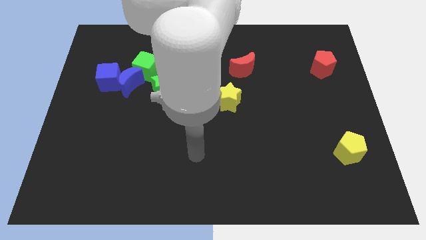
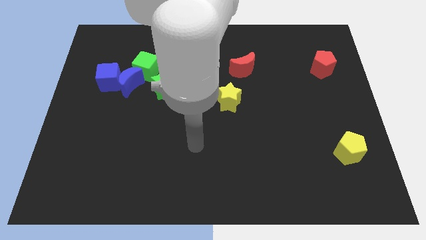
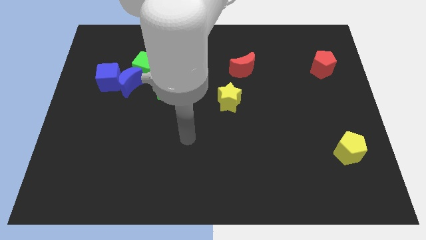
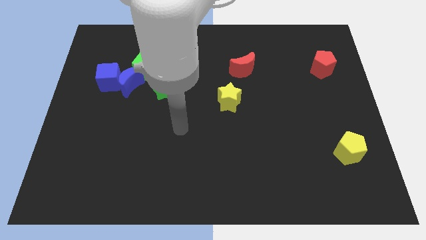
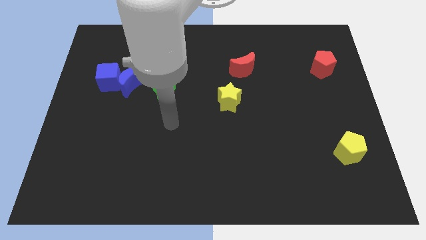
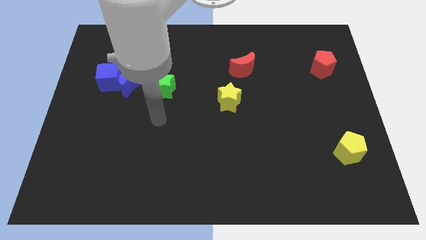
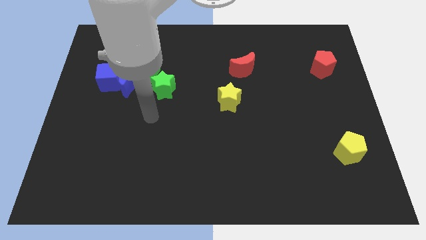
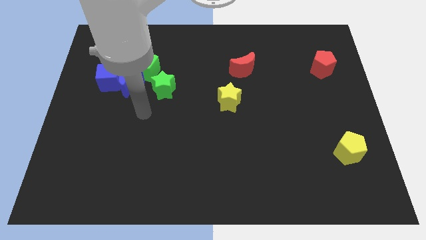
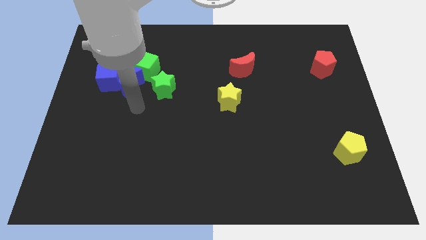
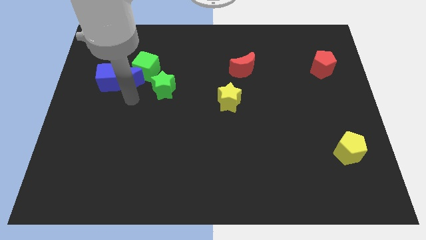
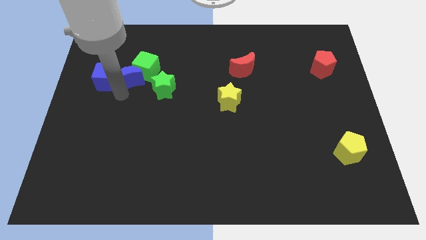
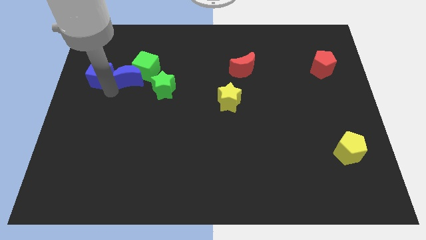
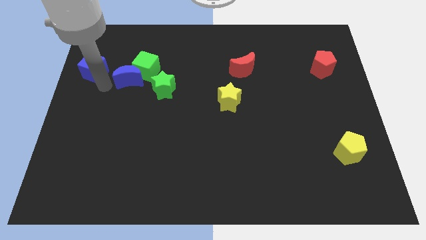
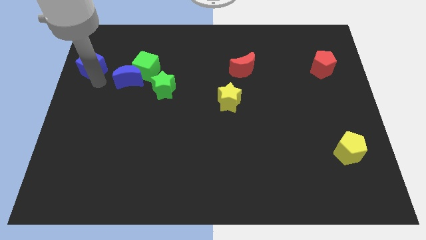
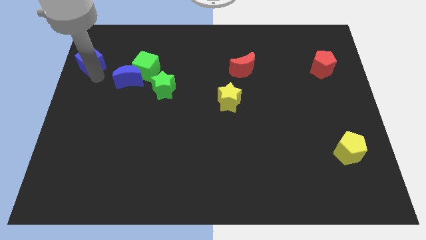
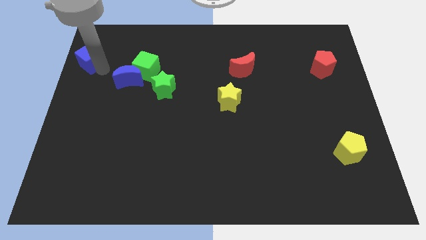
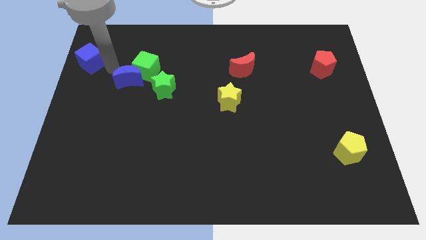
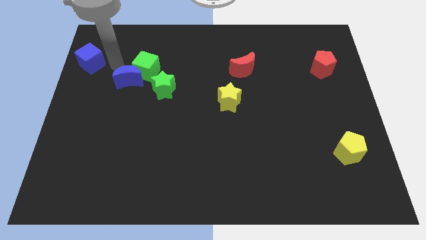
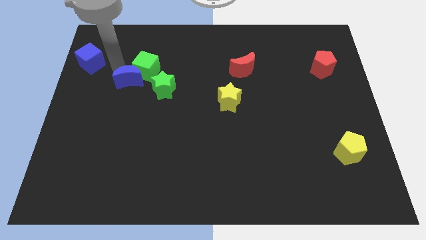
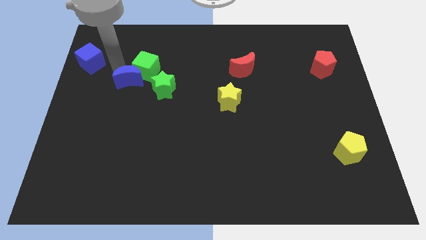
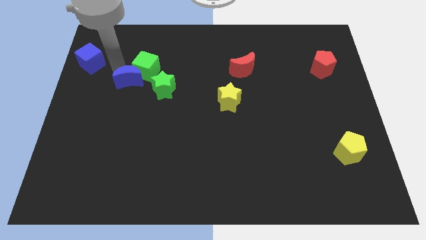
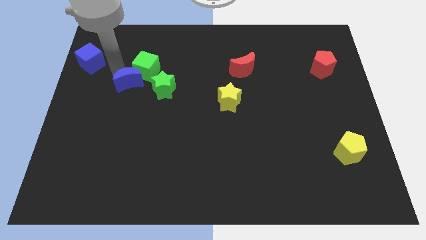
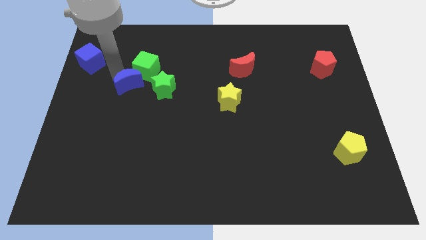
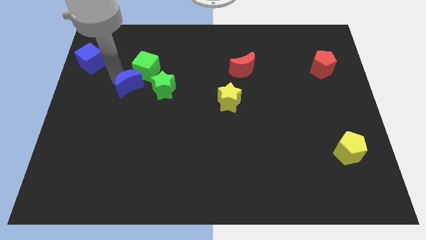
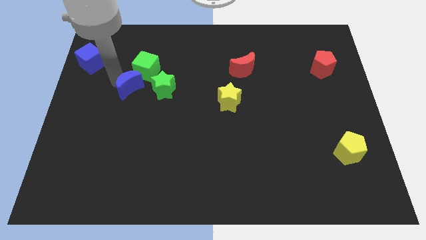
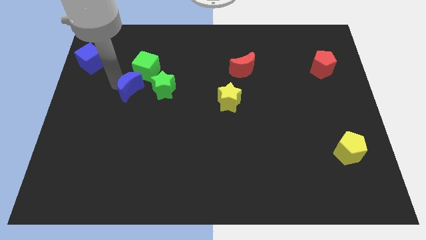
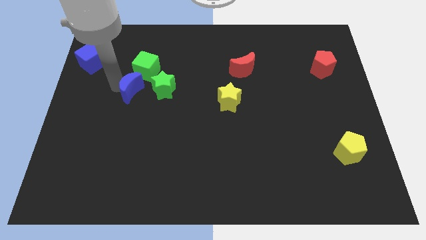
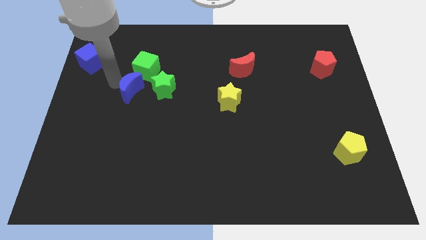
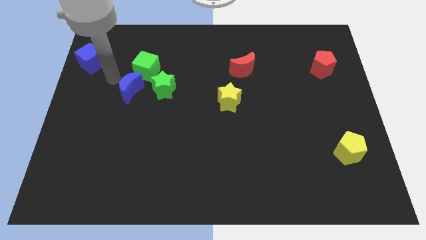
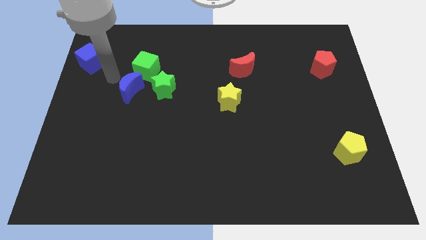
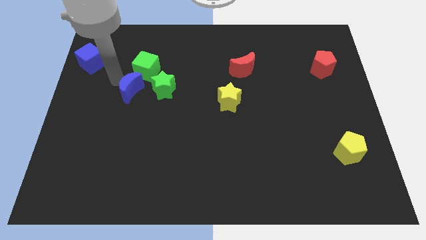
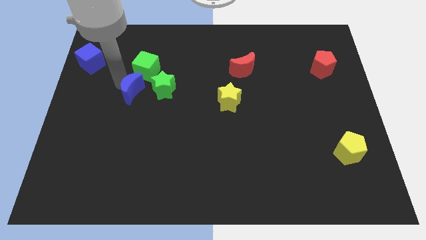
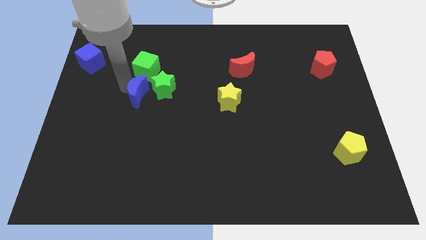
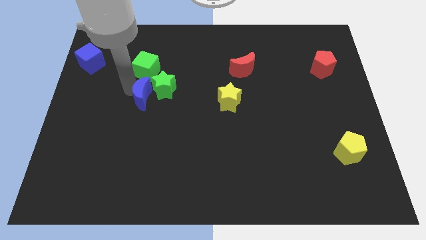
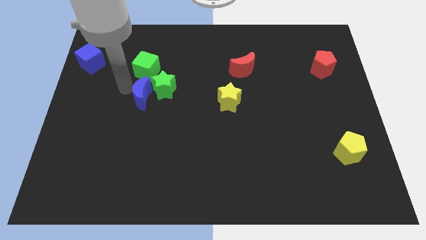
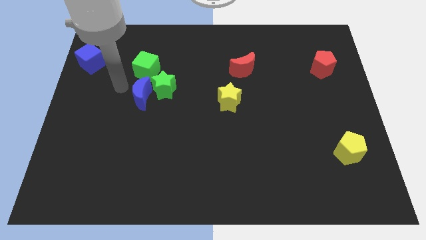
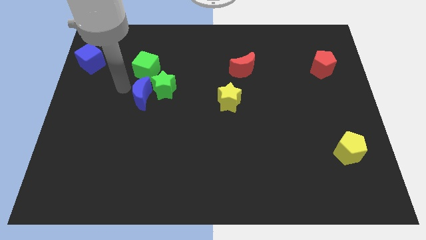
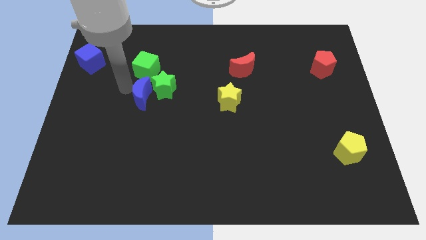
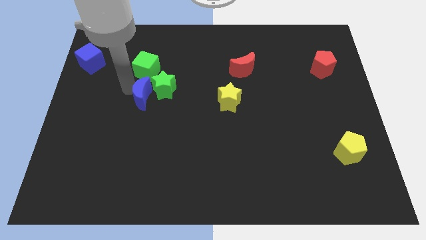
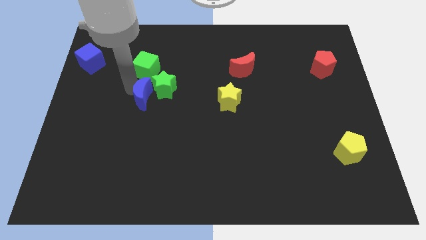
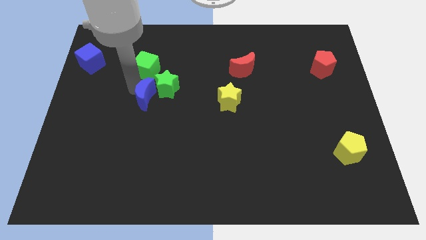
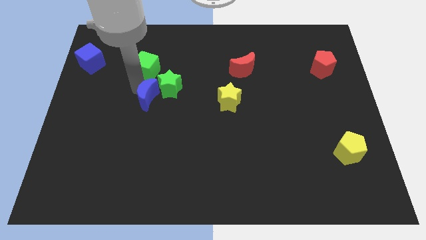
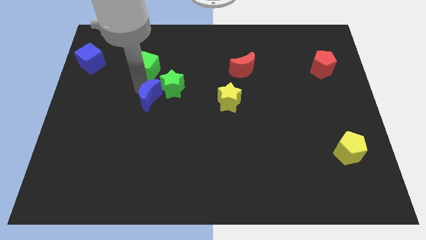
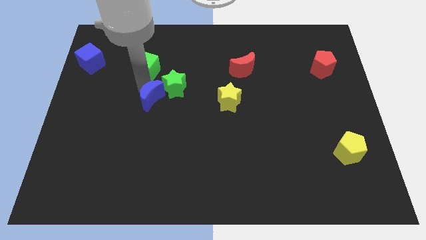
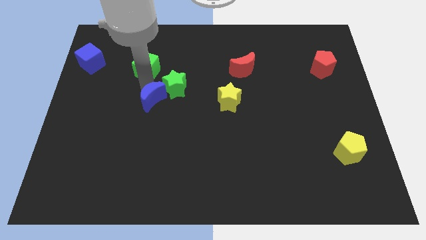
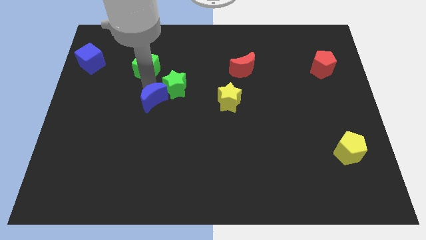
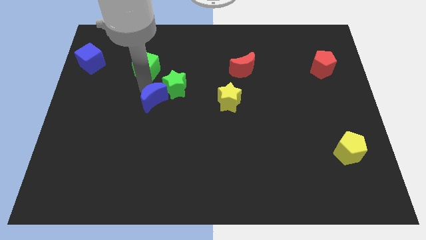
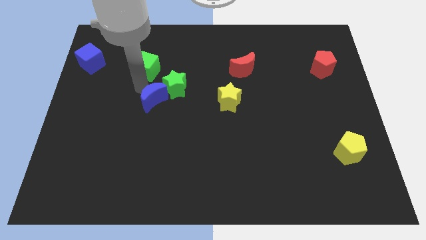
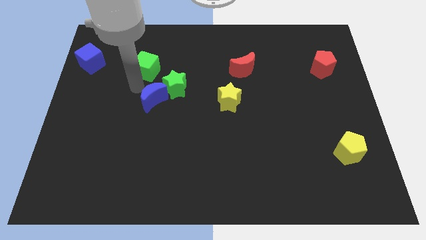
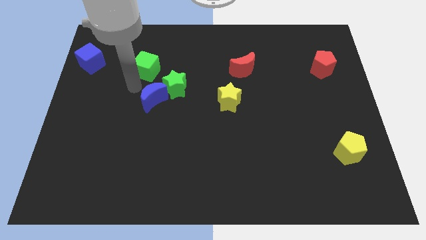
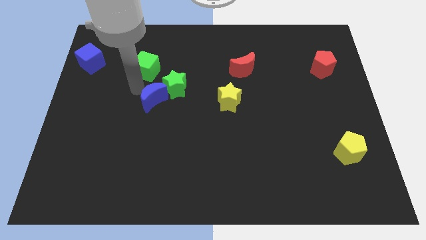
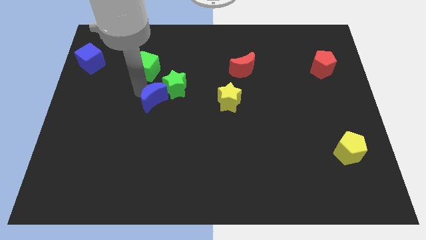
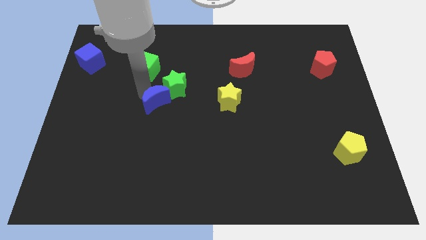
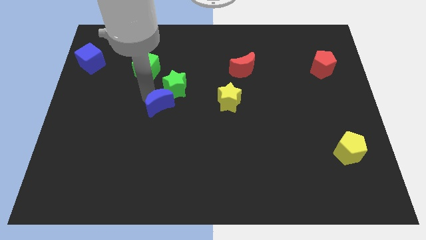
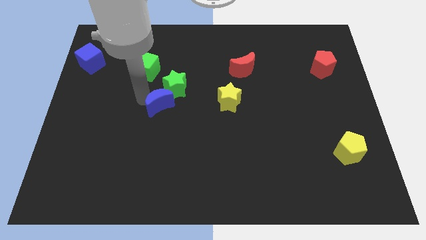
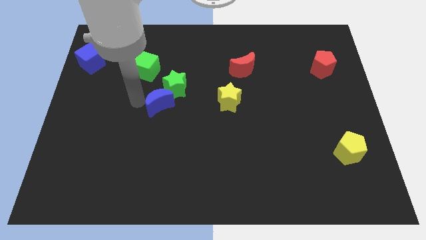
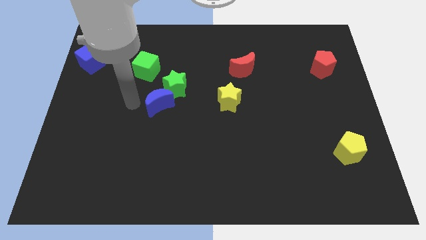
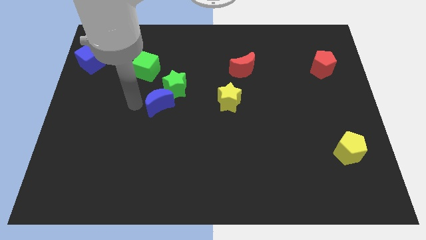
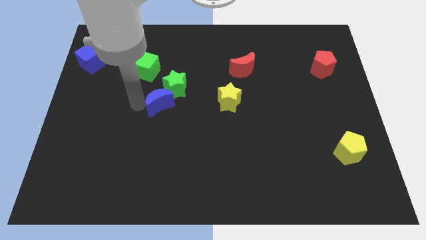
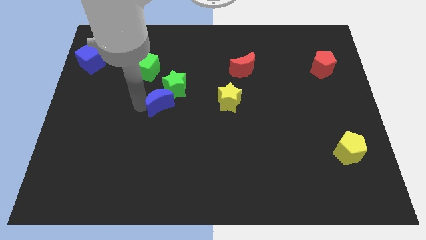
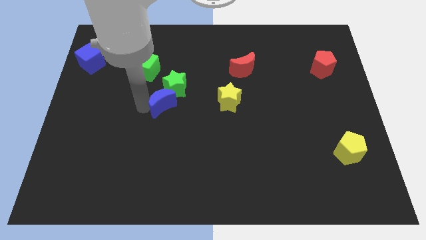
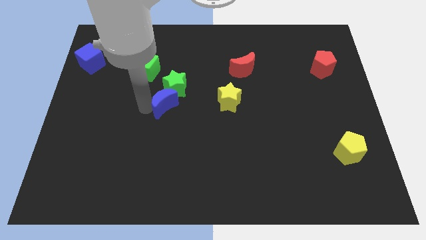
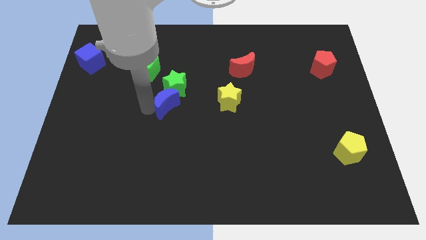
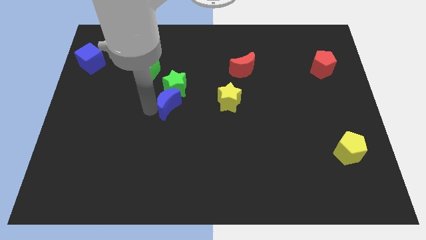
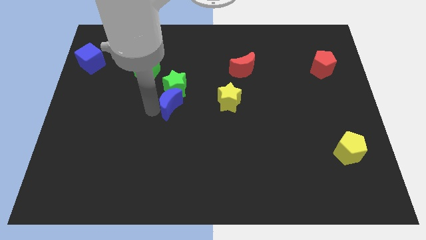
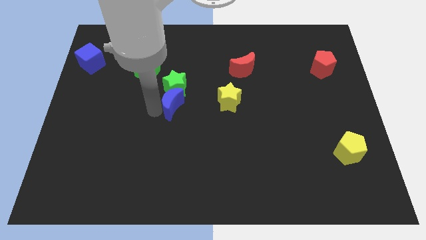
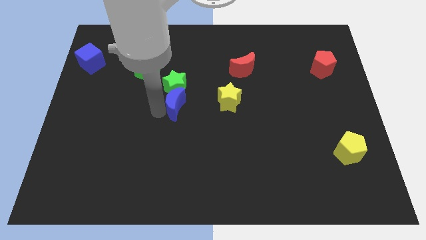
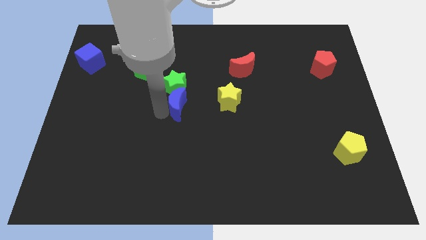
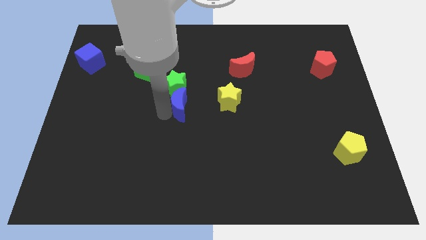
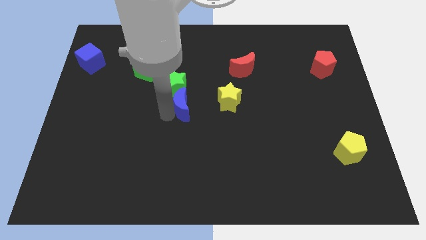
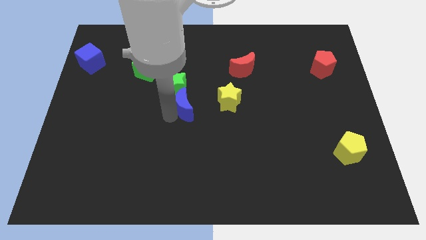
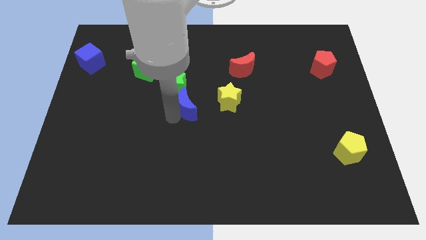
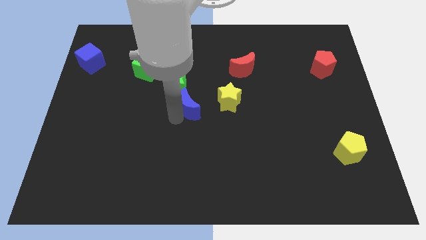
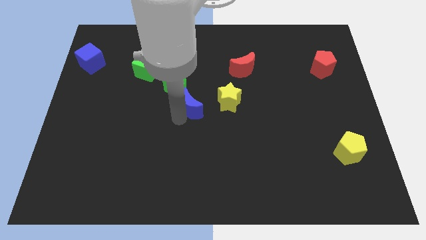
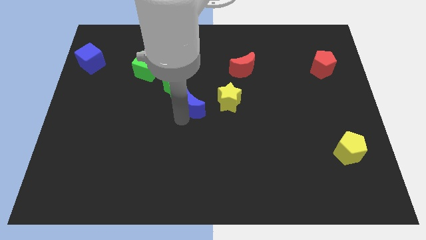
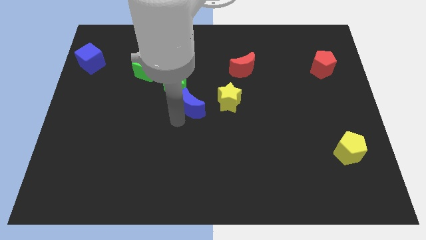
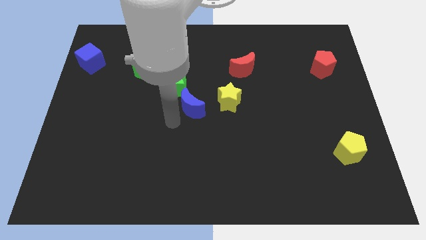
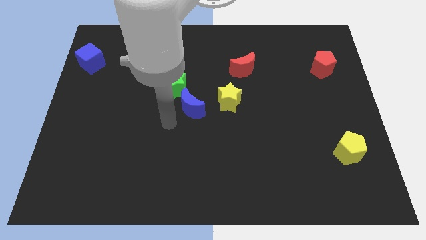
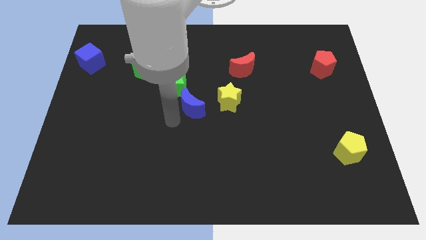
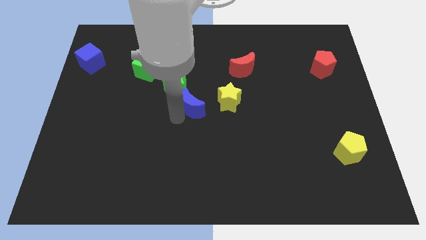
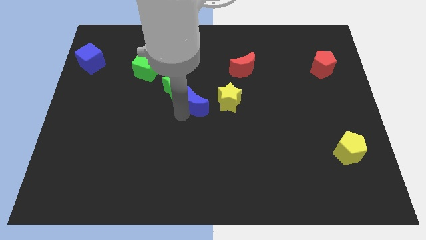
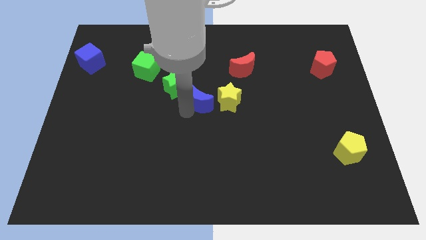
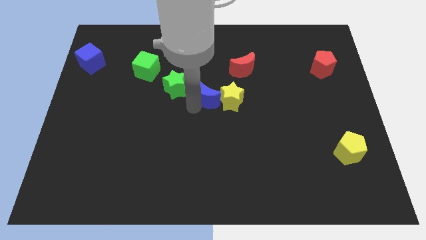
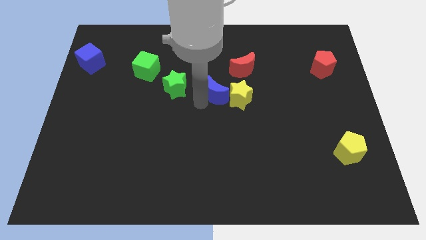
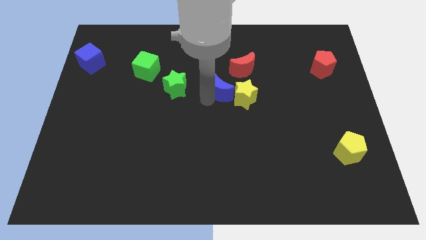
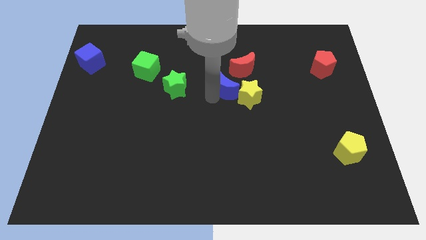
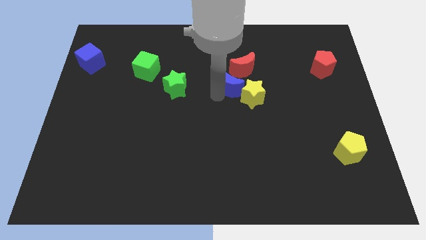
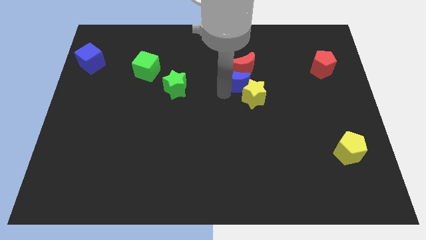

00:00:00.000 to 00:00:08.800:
push the blue moon towards the red moon
